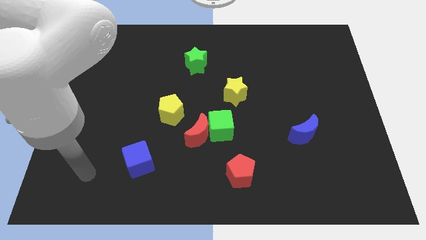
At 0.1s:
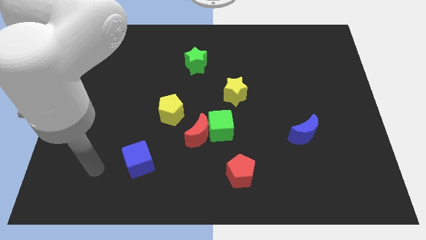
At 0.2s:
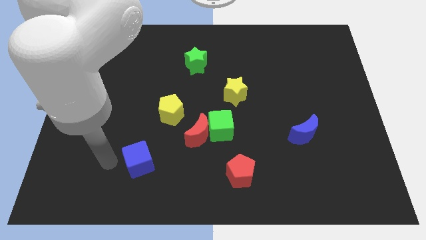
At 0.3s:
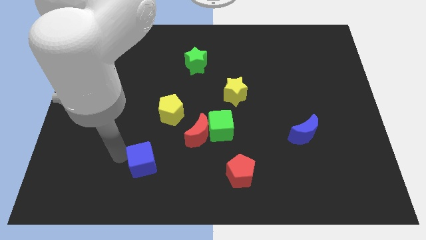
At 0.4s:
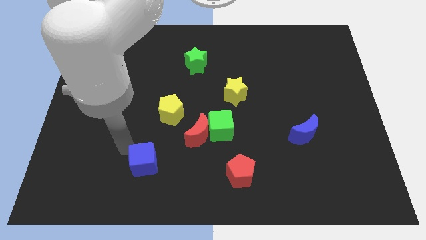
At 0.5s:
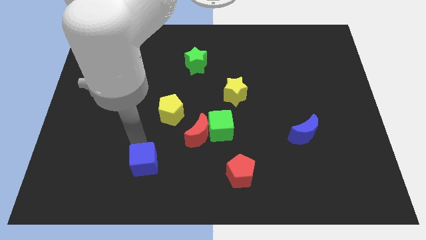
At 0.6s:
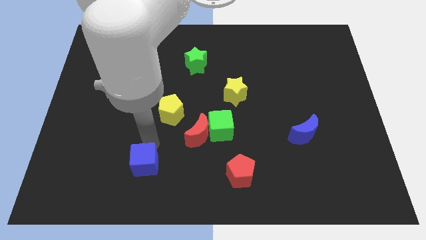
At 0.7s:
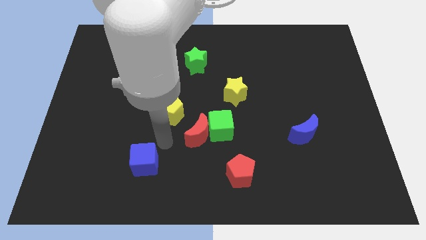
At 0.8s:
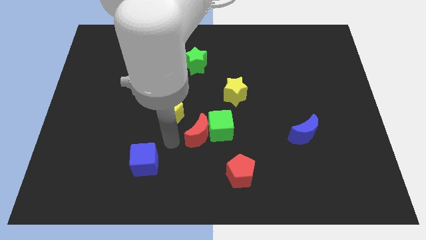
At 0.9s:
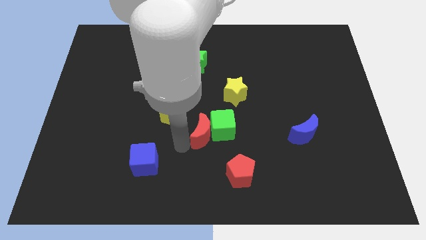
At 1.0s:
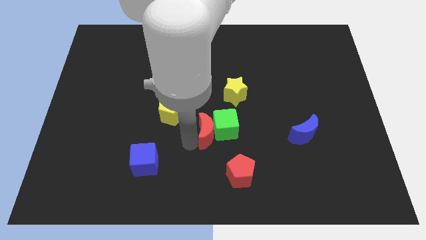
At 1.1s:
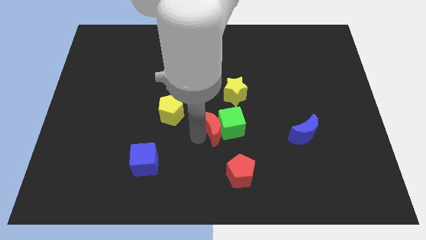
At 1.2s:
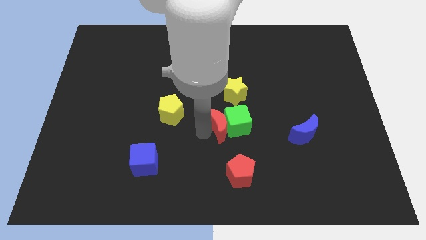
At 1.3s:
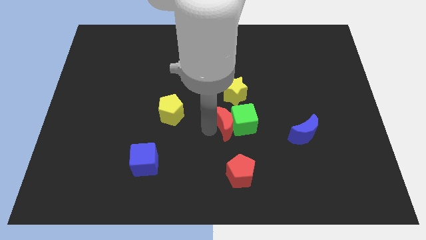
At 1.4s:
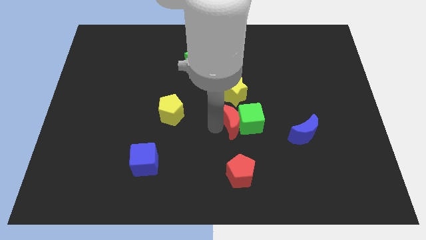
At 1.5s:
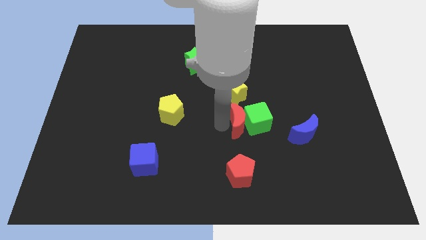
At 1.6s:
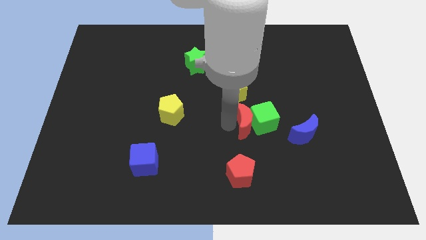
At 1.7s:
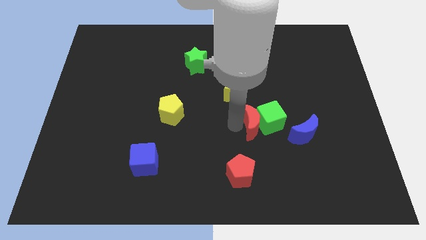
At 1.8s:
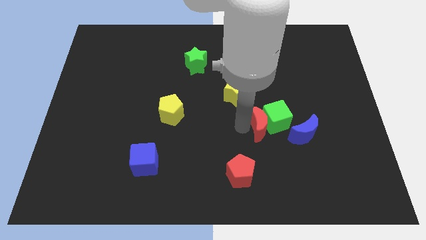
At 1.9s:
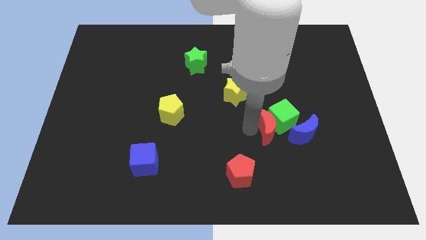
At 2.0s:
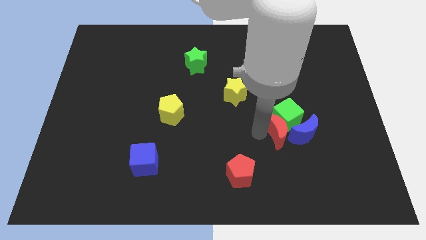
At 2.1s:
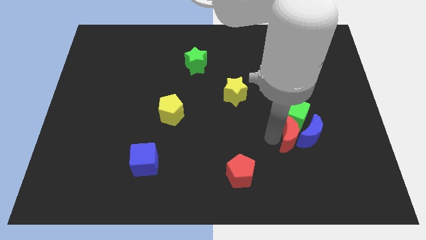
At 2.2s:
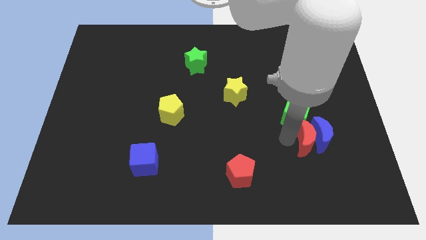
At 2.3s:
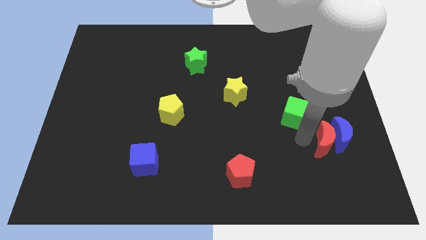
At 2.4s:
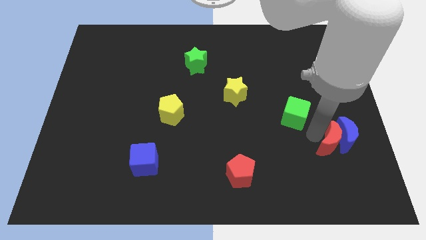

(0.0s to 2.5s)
pull the green cube apart from the red moon

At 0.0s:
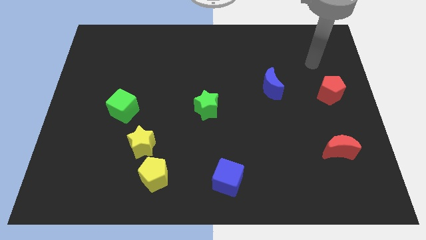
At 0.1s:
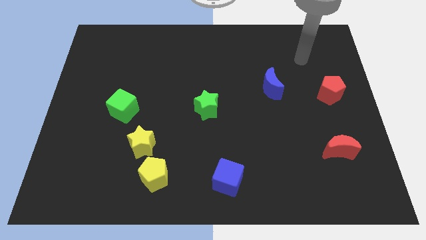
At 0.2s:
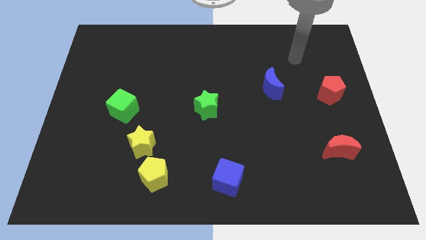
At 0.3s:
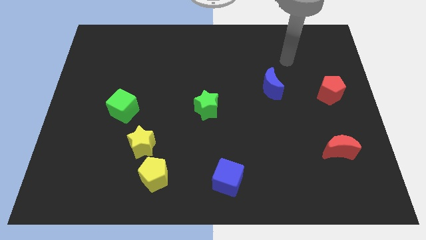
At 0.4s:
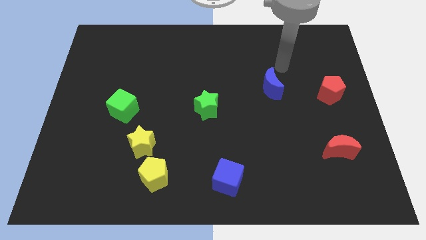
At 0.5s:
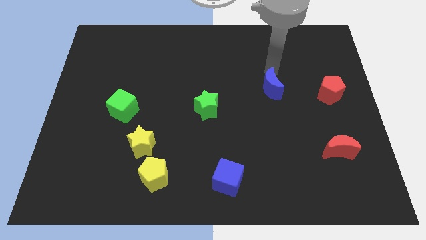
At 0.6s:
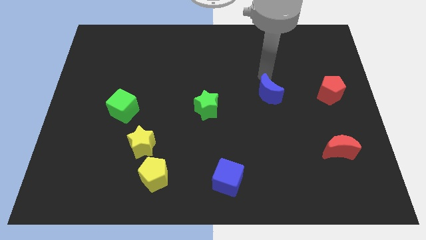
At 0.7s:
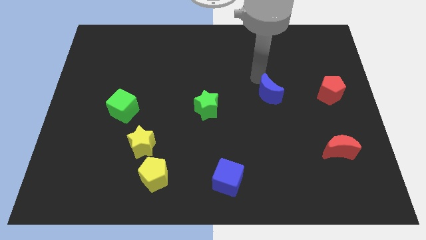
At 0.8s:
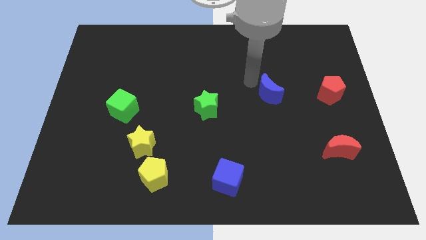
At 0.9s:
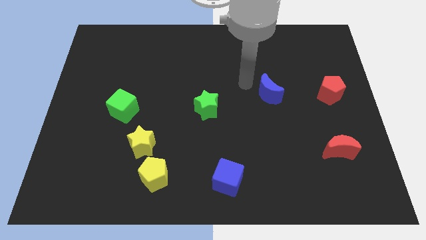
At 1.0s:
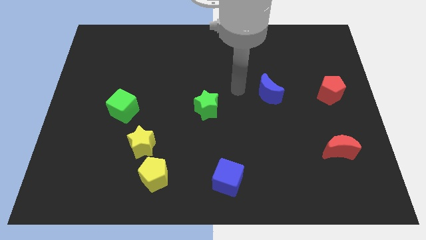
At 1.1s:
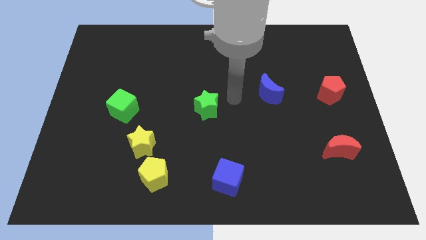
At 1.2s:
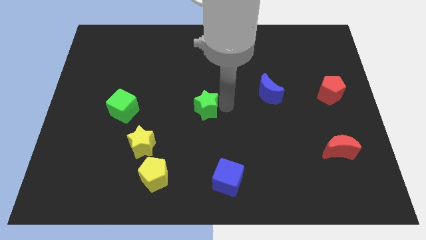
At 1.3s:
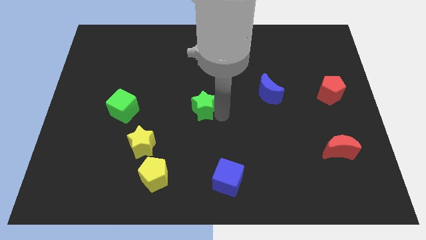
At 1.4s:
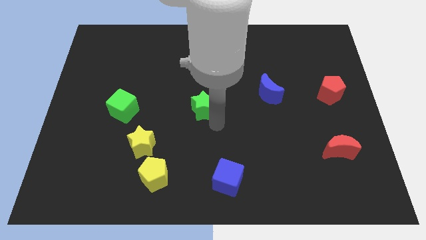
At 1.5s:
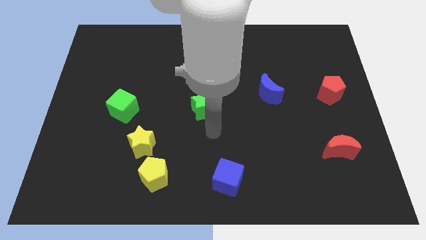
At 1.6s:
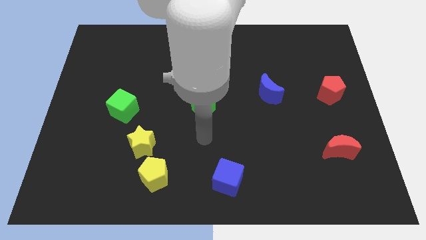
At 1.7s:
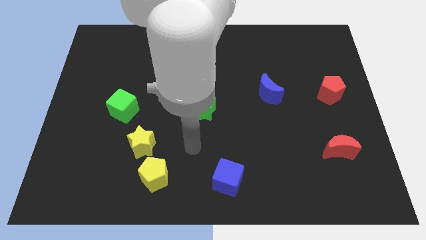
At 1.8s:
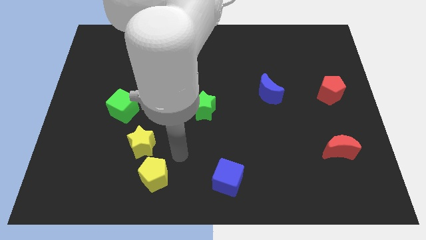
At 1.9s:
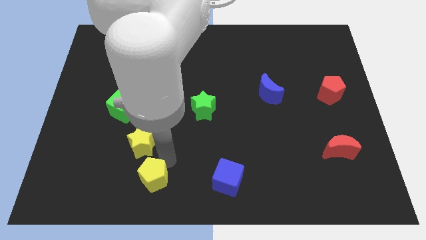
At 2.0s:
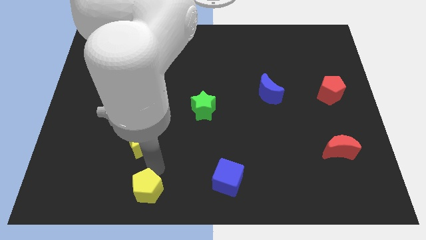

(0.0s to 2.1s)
move the yellow star away from the yellow pentagon

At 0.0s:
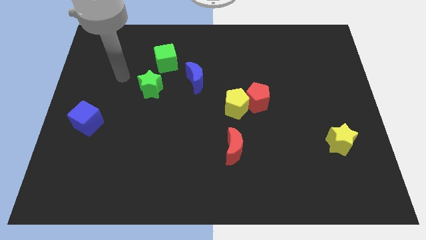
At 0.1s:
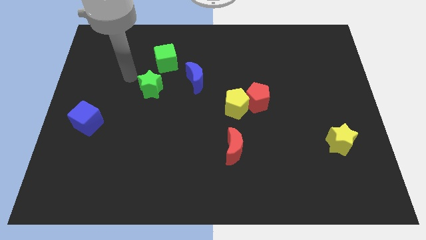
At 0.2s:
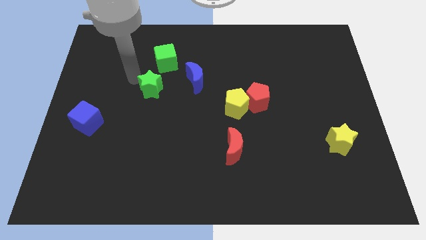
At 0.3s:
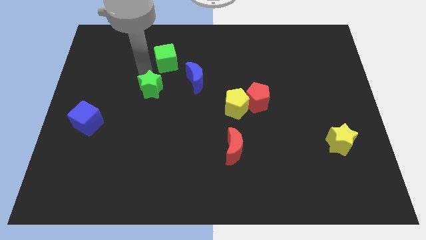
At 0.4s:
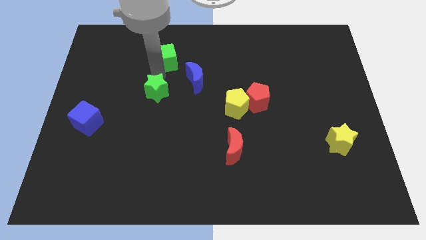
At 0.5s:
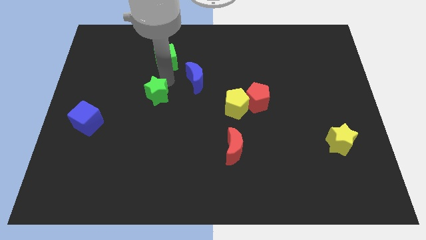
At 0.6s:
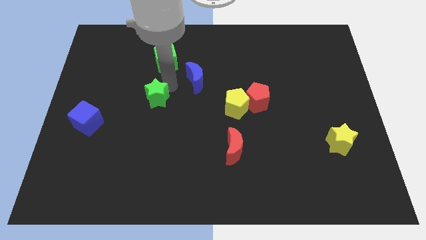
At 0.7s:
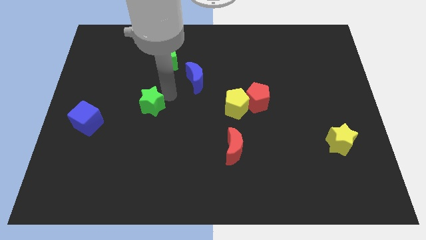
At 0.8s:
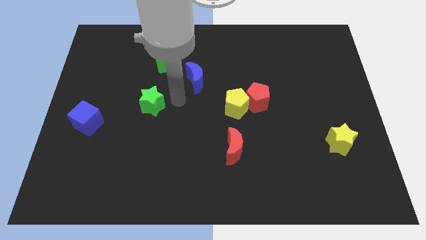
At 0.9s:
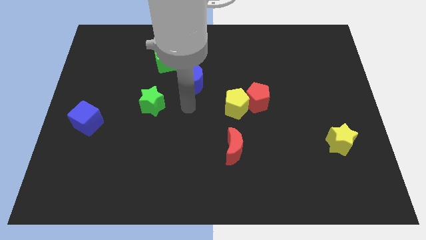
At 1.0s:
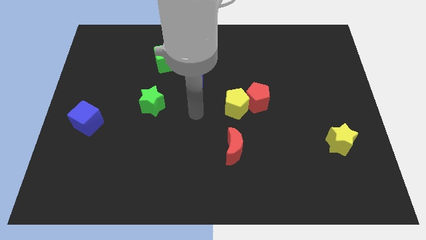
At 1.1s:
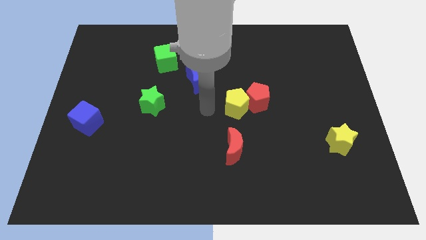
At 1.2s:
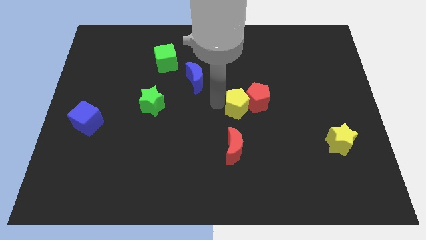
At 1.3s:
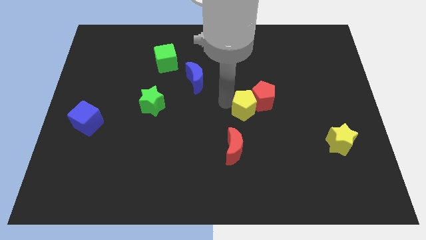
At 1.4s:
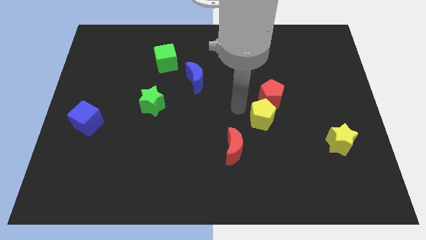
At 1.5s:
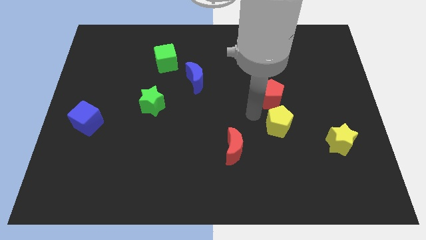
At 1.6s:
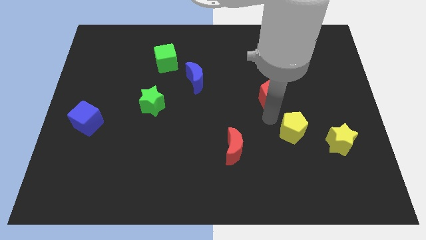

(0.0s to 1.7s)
separate the red pentagon from the yellow pentagon

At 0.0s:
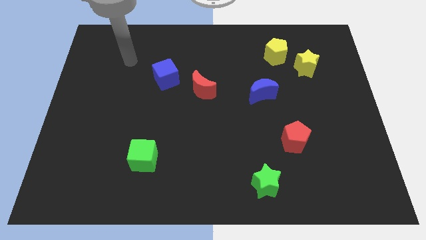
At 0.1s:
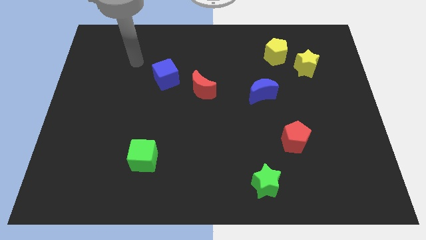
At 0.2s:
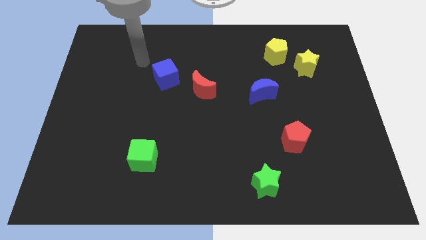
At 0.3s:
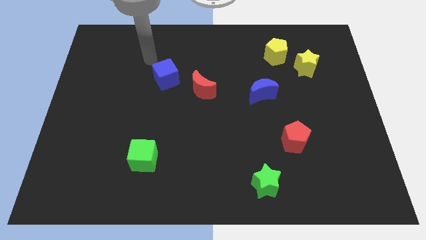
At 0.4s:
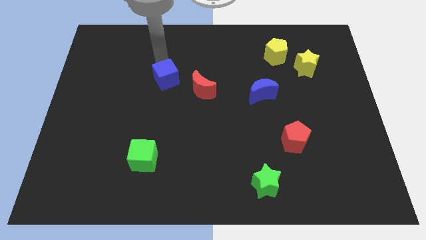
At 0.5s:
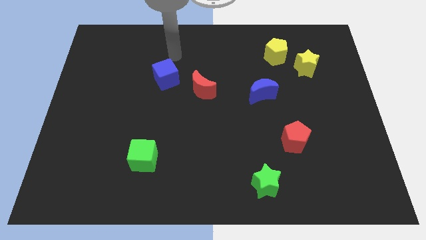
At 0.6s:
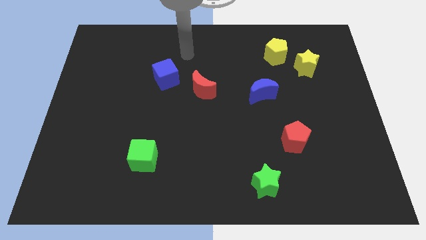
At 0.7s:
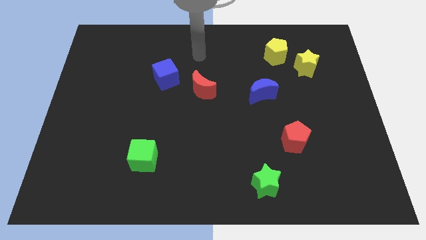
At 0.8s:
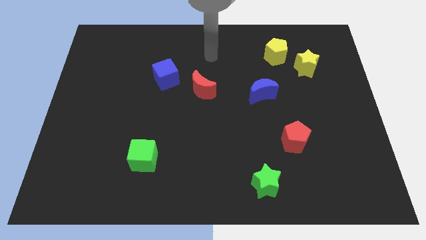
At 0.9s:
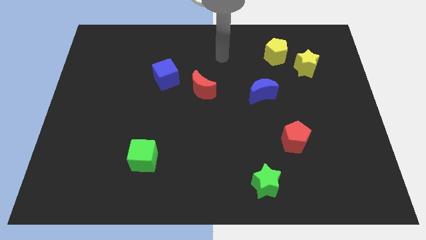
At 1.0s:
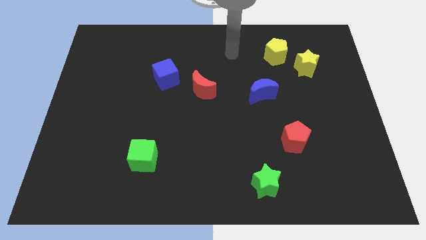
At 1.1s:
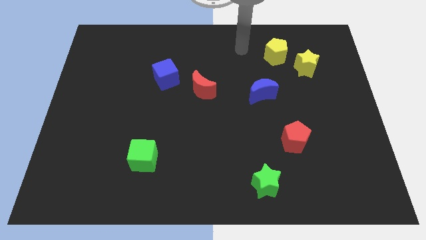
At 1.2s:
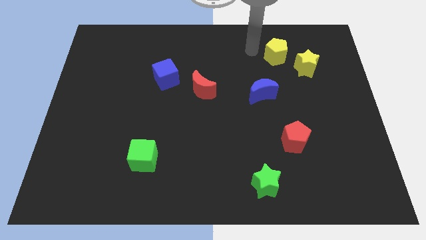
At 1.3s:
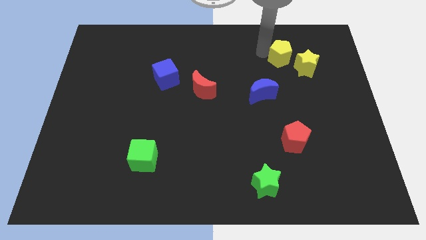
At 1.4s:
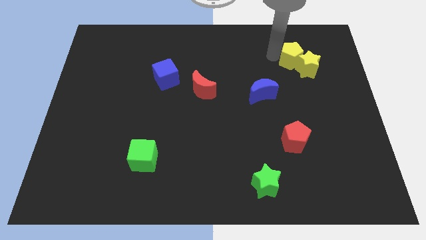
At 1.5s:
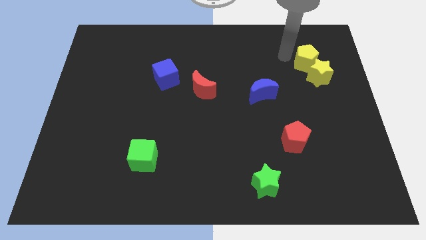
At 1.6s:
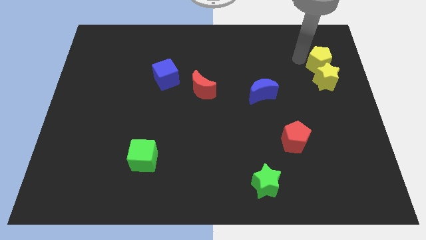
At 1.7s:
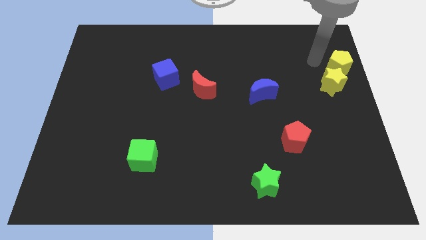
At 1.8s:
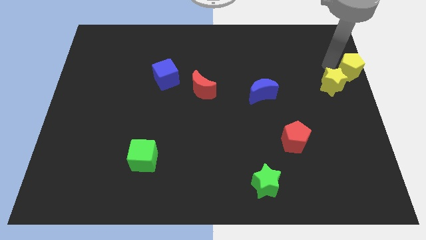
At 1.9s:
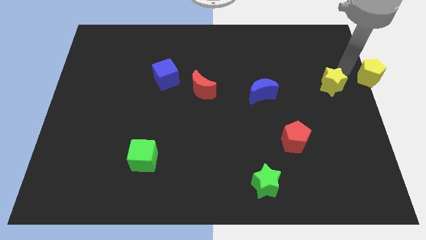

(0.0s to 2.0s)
pull the yellow star apart from the yellow pentagon

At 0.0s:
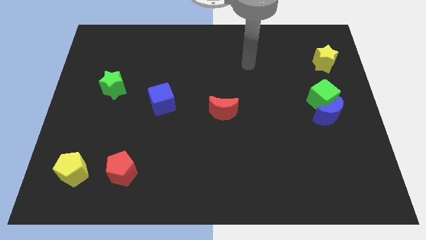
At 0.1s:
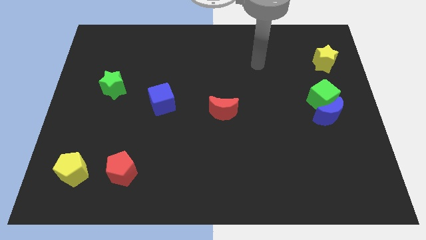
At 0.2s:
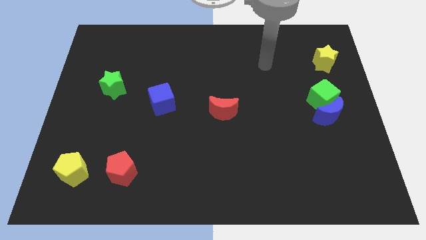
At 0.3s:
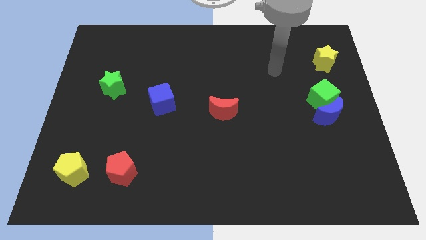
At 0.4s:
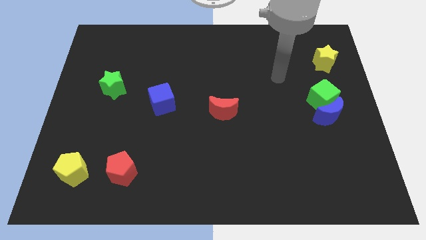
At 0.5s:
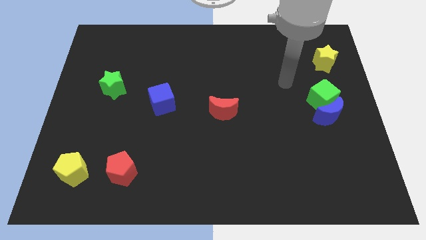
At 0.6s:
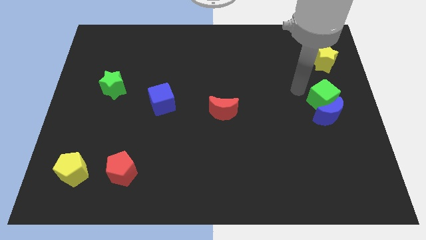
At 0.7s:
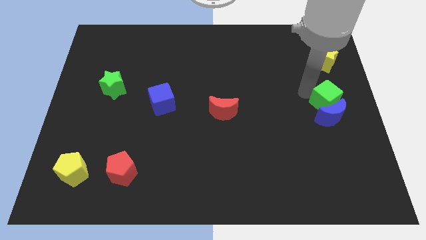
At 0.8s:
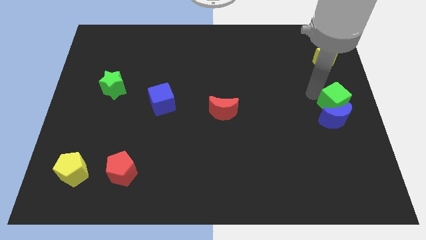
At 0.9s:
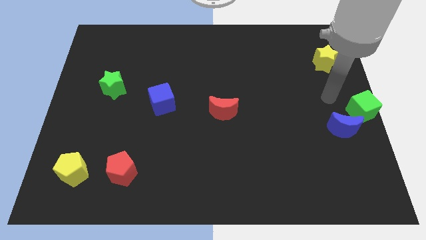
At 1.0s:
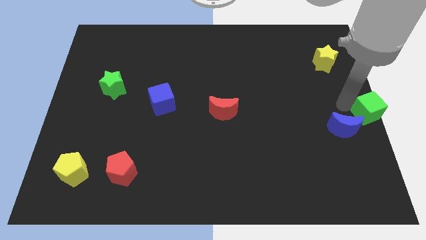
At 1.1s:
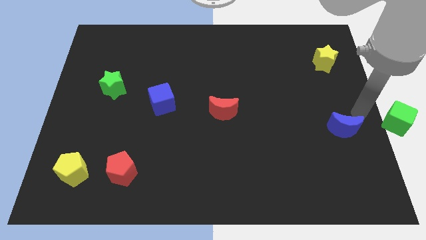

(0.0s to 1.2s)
pull the blue moon apart from the green cube
